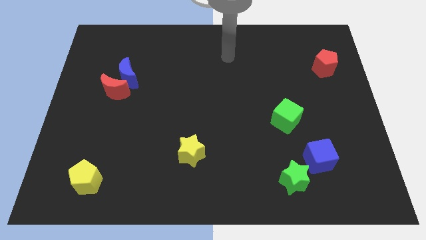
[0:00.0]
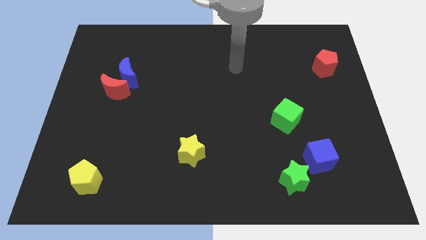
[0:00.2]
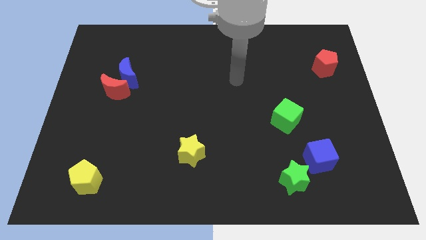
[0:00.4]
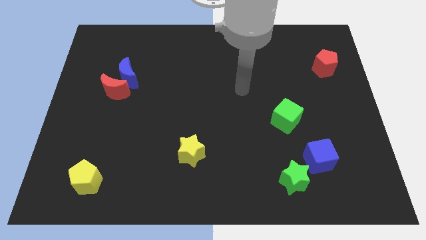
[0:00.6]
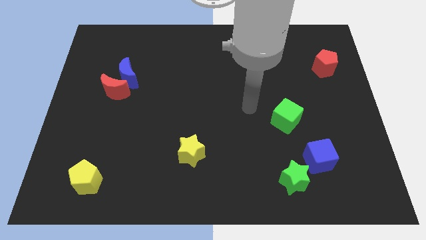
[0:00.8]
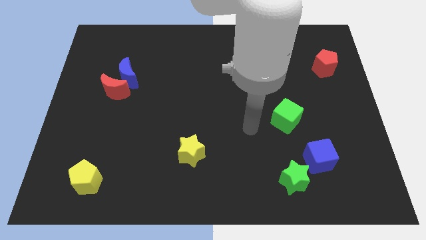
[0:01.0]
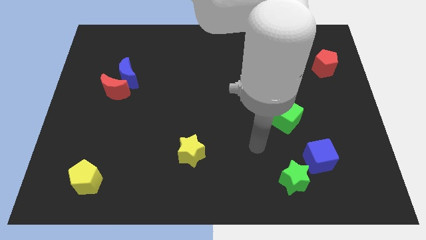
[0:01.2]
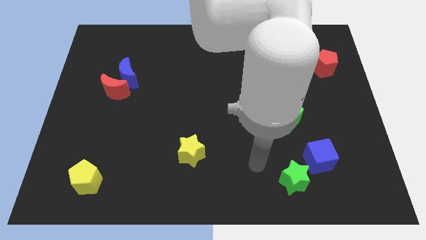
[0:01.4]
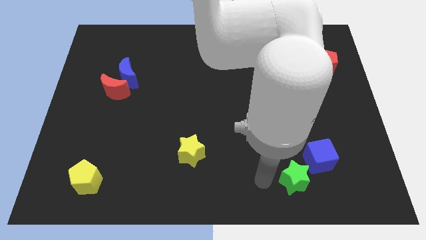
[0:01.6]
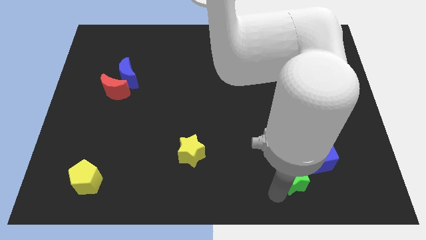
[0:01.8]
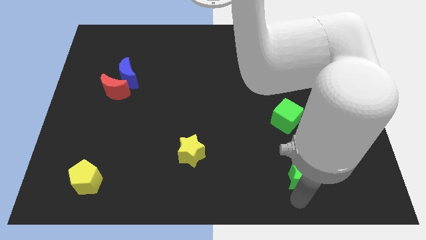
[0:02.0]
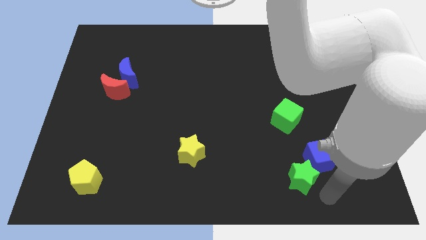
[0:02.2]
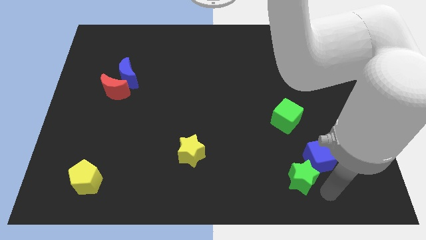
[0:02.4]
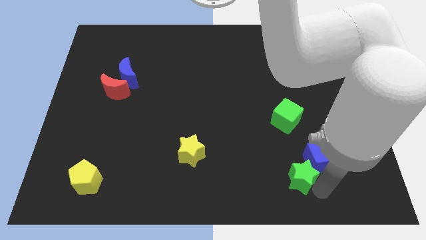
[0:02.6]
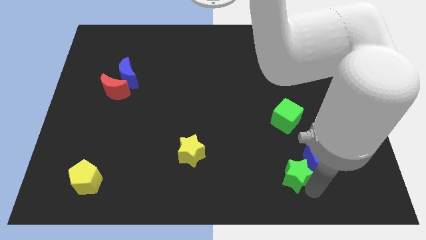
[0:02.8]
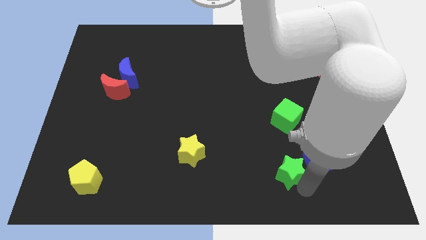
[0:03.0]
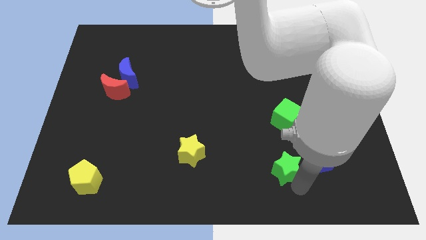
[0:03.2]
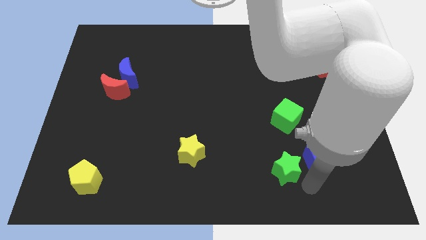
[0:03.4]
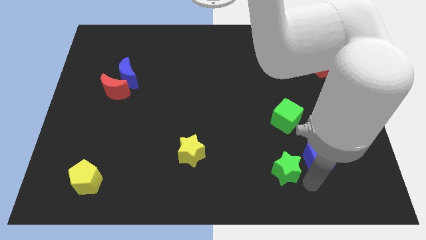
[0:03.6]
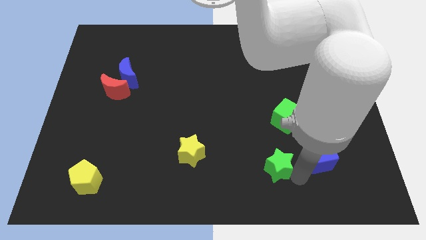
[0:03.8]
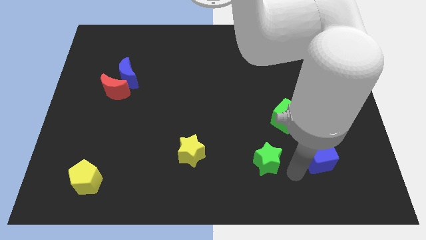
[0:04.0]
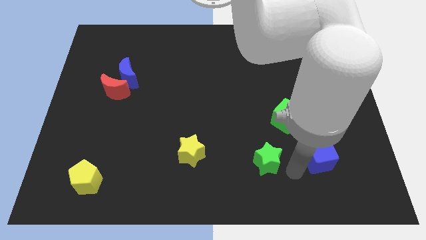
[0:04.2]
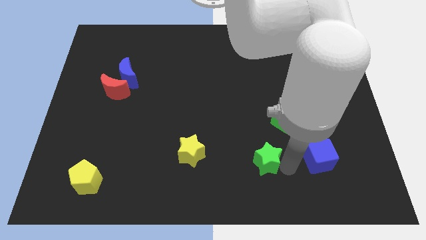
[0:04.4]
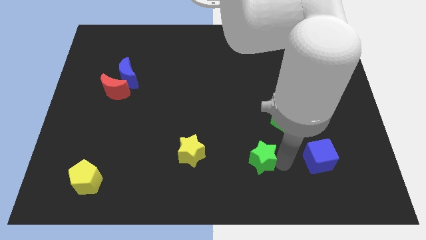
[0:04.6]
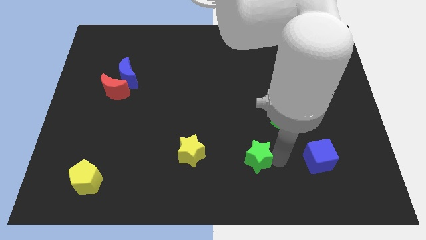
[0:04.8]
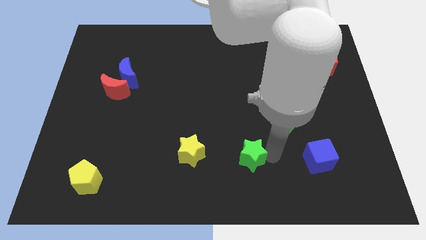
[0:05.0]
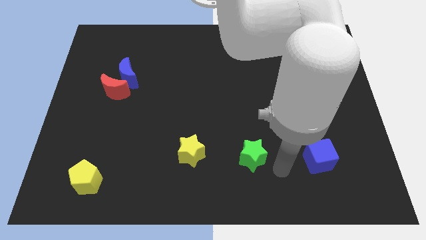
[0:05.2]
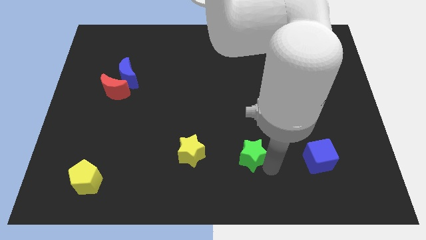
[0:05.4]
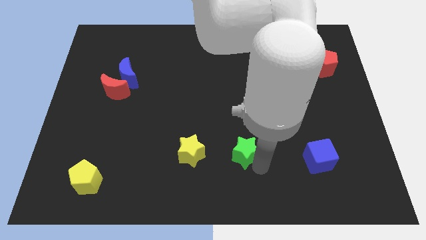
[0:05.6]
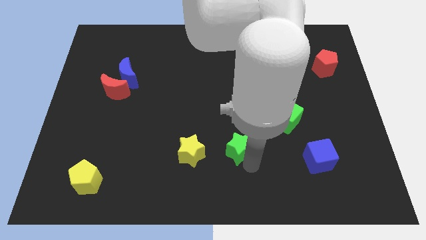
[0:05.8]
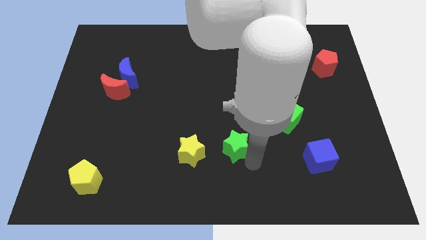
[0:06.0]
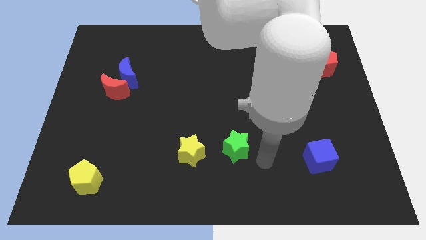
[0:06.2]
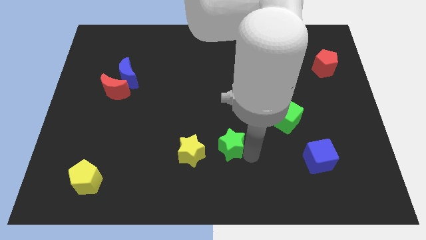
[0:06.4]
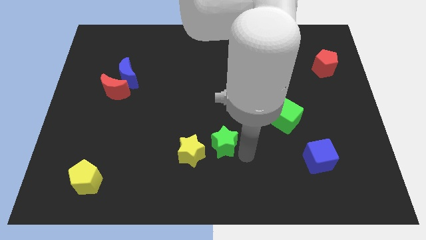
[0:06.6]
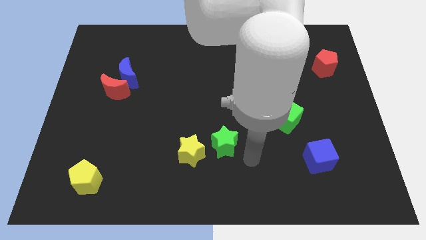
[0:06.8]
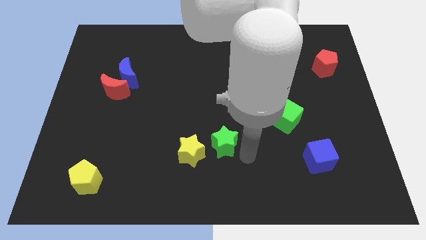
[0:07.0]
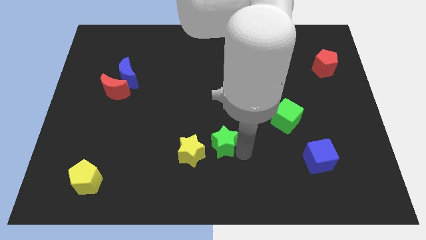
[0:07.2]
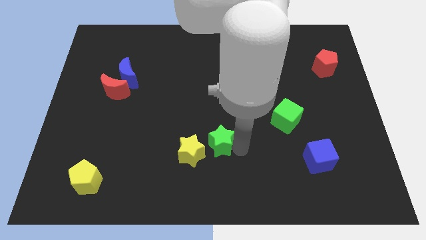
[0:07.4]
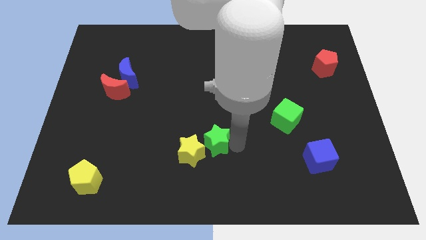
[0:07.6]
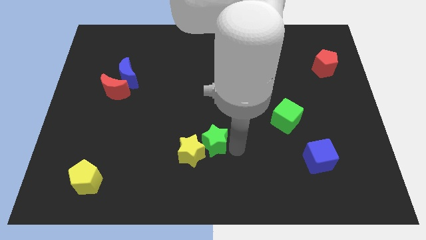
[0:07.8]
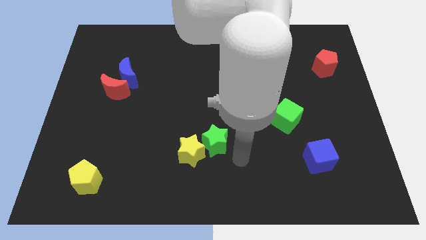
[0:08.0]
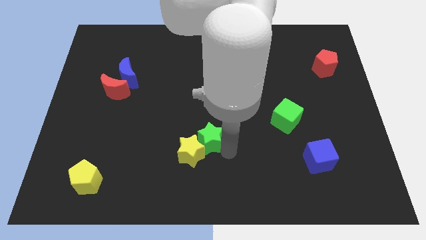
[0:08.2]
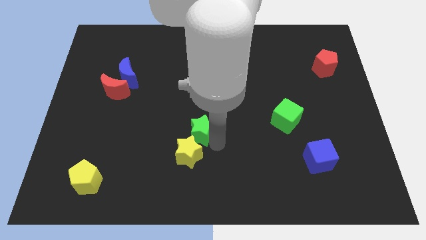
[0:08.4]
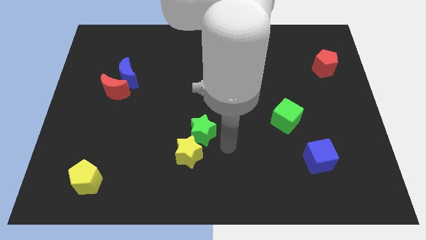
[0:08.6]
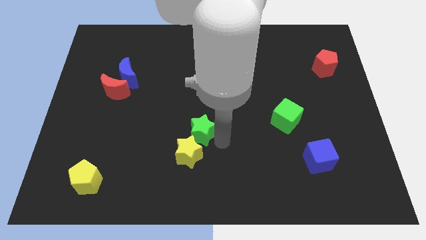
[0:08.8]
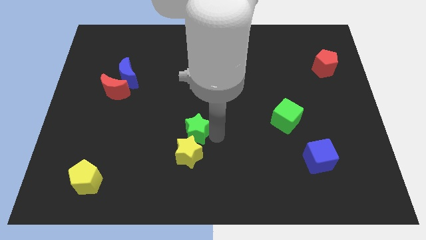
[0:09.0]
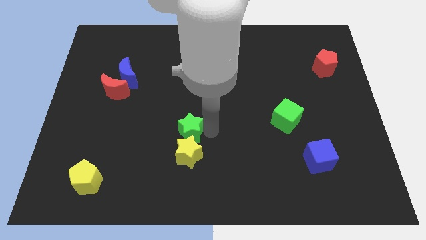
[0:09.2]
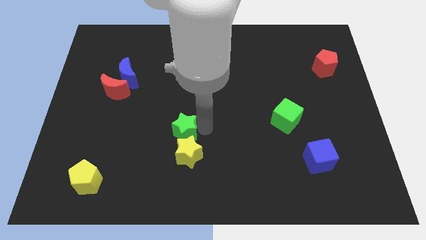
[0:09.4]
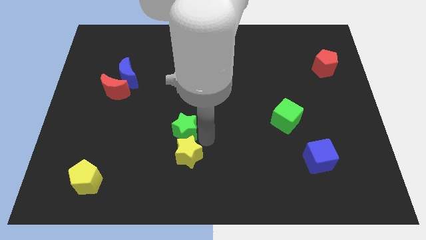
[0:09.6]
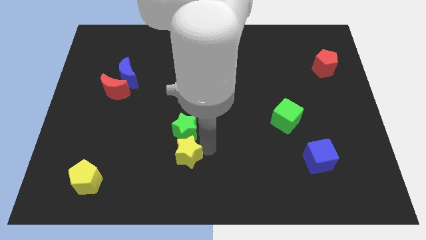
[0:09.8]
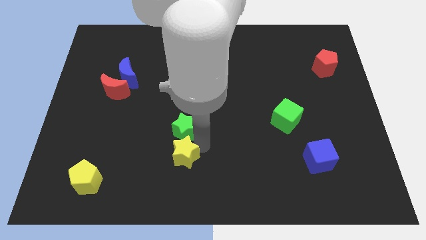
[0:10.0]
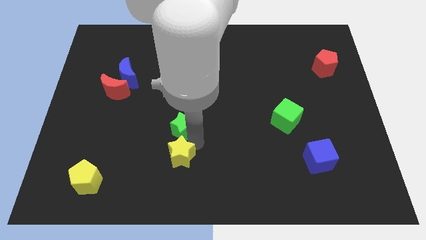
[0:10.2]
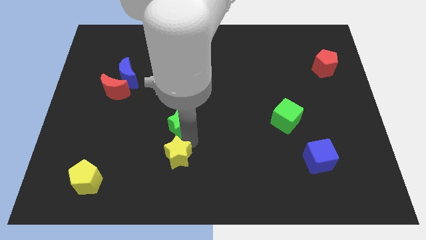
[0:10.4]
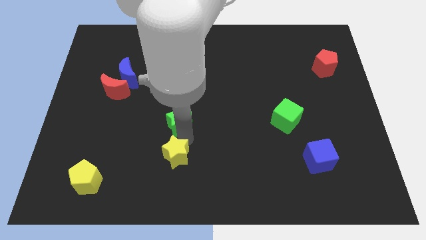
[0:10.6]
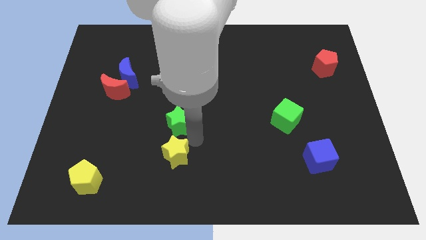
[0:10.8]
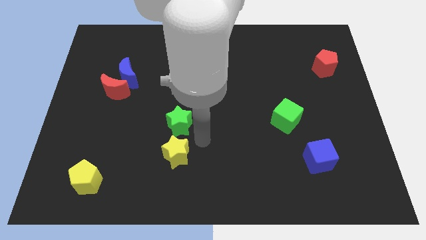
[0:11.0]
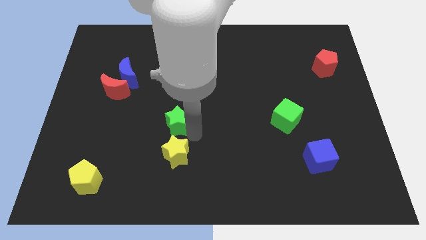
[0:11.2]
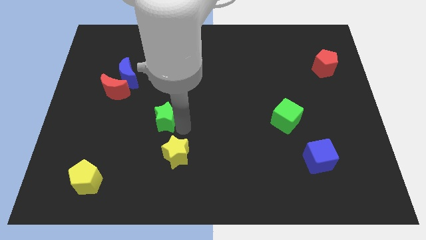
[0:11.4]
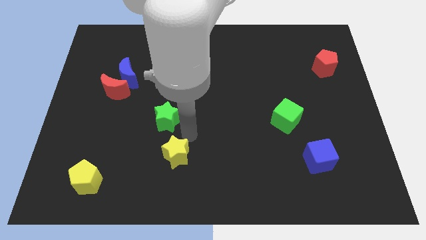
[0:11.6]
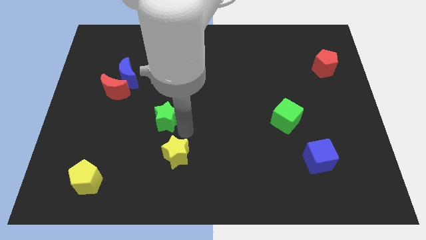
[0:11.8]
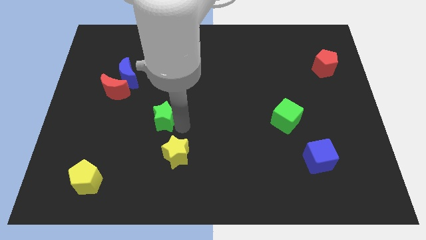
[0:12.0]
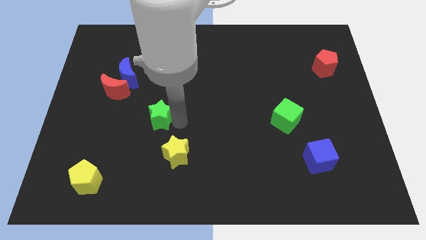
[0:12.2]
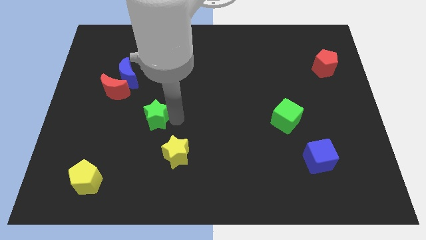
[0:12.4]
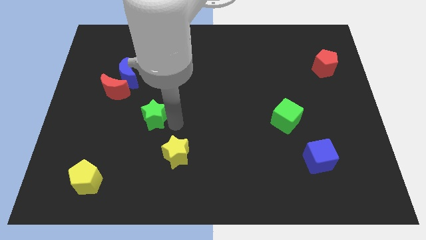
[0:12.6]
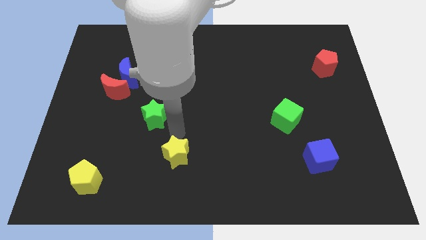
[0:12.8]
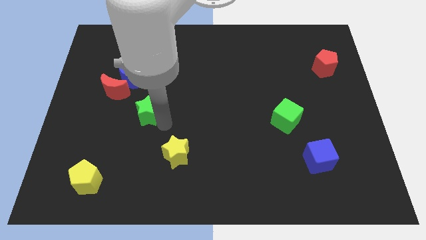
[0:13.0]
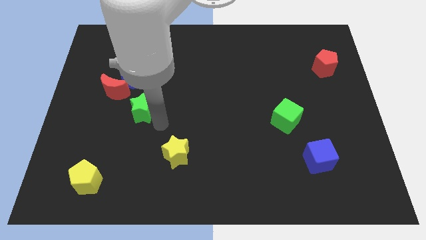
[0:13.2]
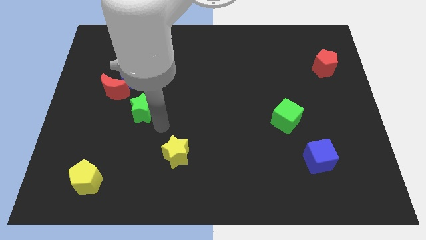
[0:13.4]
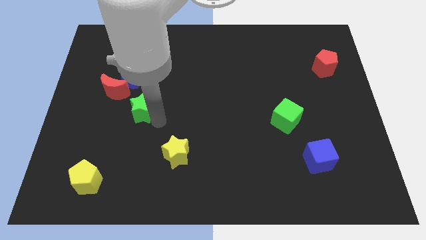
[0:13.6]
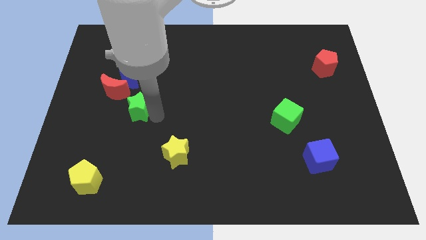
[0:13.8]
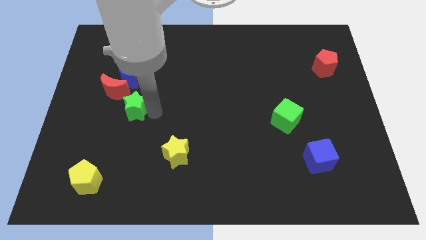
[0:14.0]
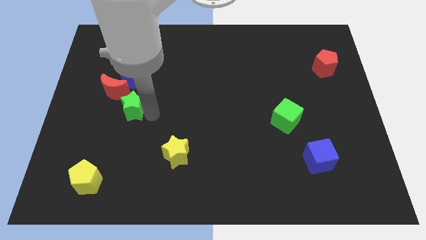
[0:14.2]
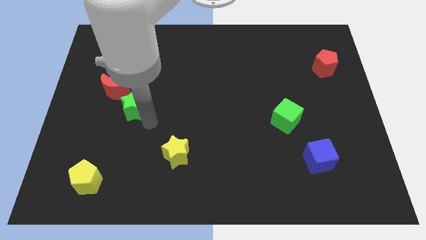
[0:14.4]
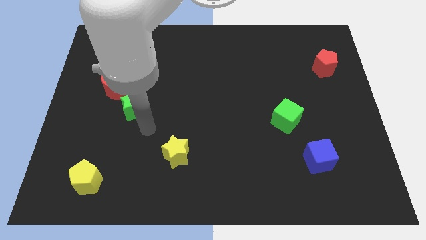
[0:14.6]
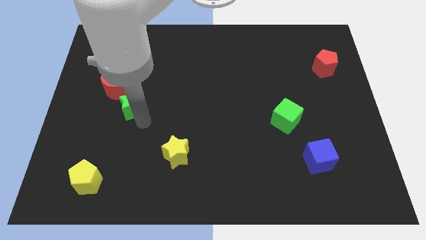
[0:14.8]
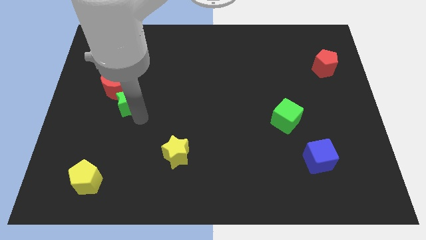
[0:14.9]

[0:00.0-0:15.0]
slide the green star towards the red moon
